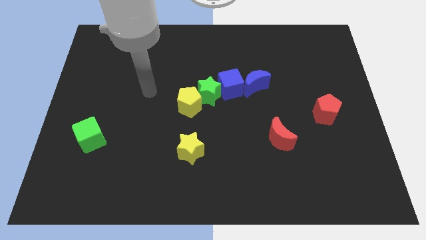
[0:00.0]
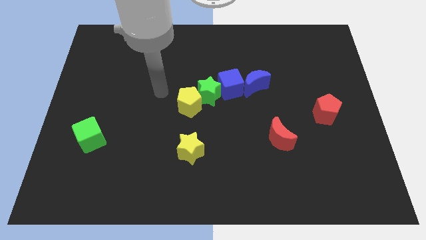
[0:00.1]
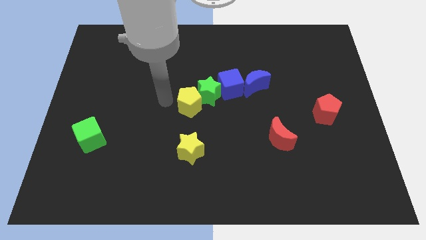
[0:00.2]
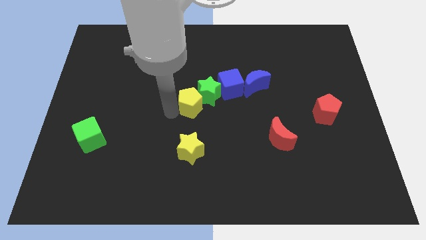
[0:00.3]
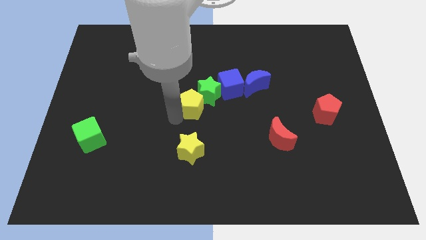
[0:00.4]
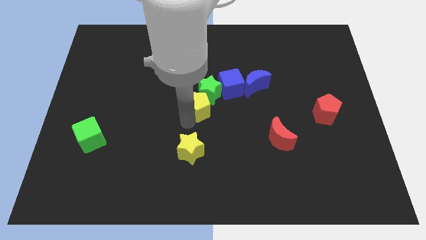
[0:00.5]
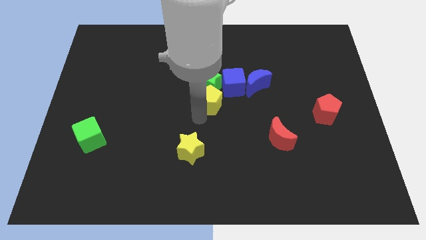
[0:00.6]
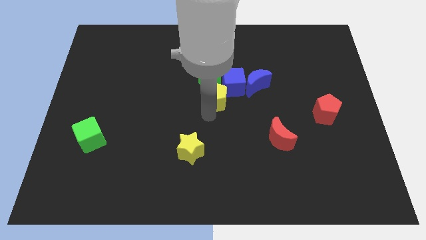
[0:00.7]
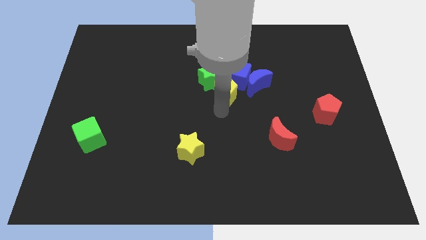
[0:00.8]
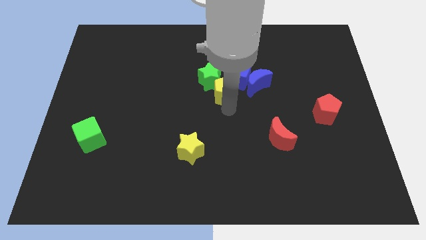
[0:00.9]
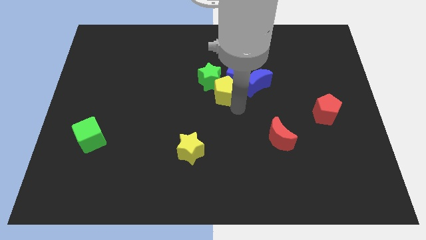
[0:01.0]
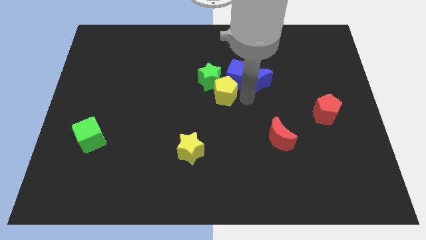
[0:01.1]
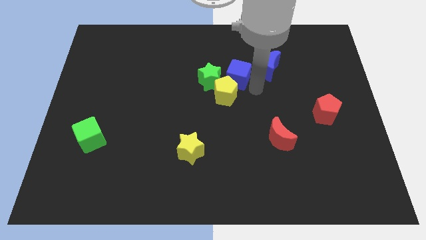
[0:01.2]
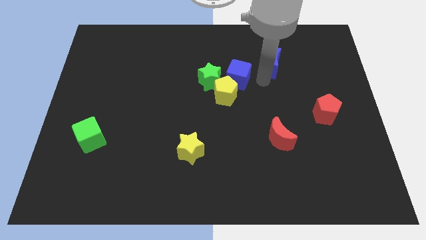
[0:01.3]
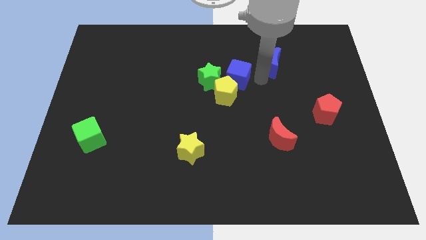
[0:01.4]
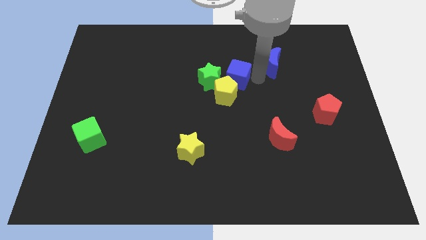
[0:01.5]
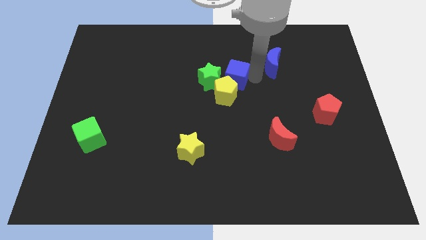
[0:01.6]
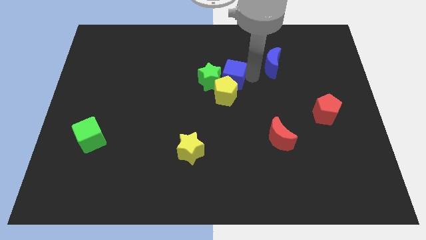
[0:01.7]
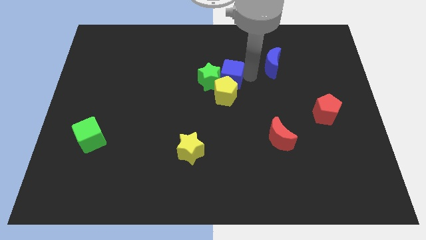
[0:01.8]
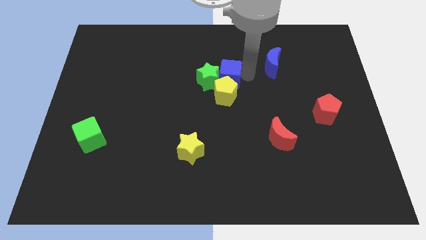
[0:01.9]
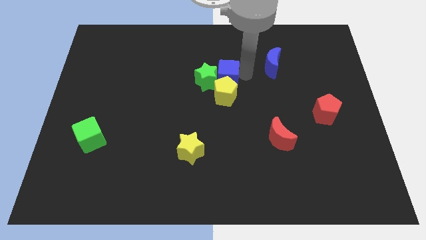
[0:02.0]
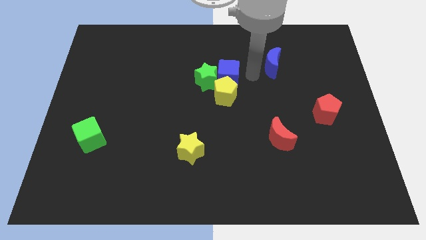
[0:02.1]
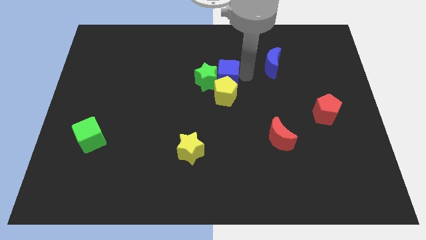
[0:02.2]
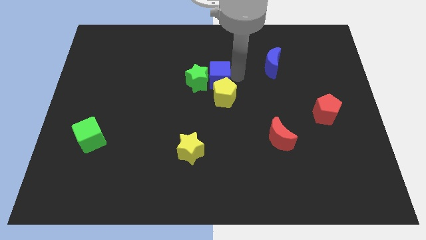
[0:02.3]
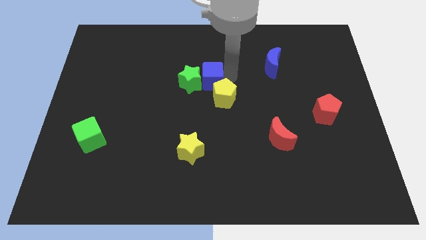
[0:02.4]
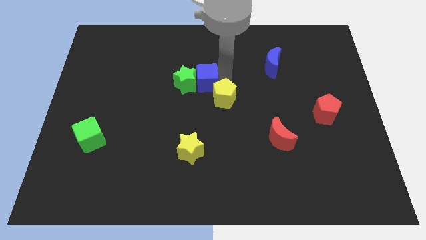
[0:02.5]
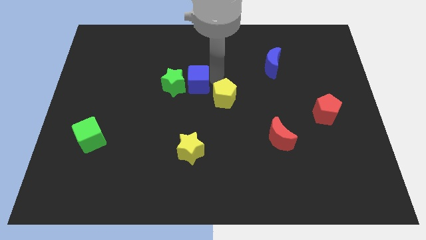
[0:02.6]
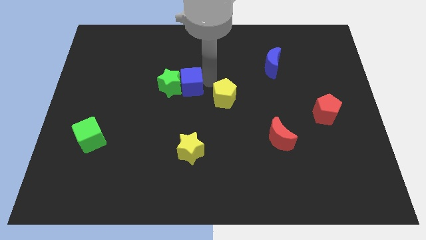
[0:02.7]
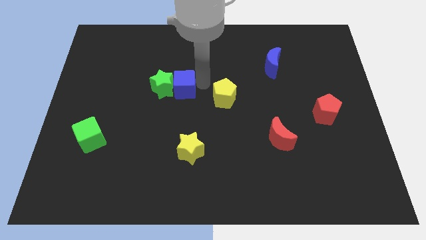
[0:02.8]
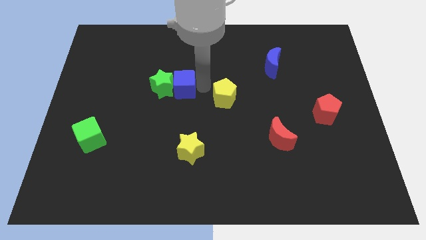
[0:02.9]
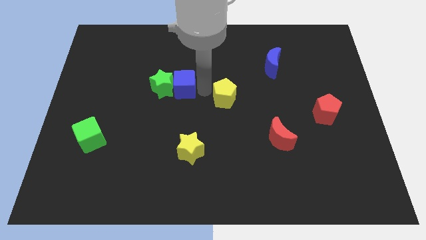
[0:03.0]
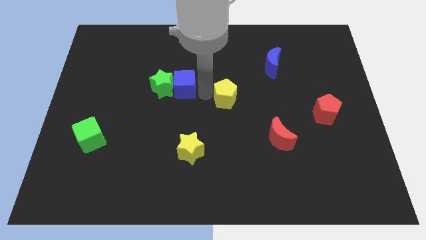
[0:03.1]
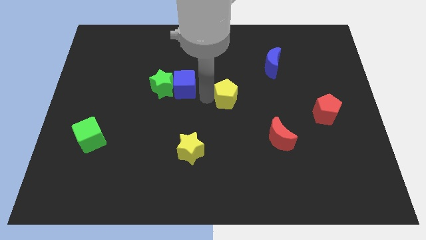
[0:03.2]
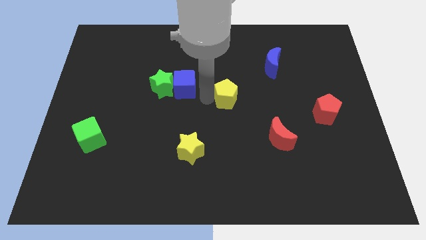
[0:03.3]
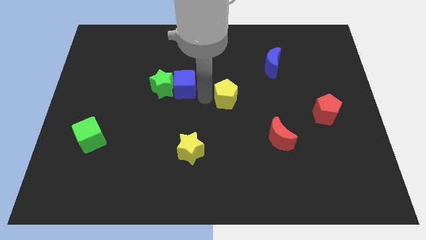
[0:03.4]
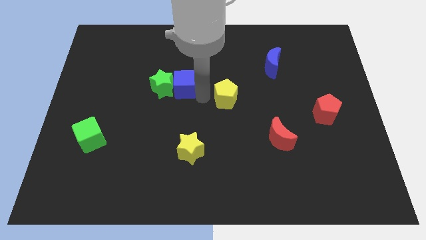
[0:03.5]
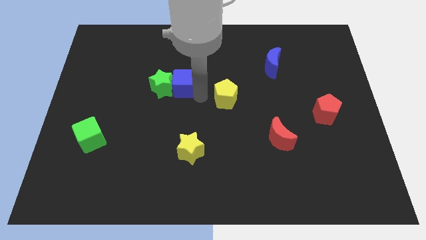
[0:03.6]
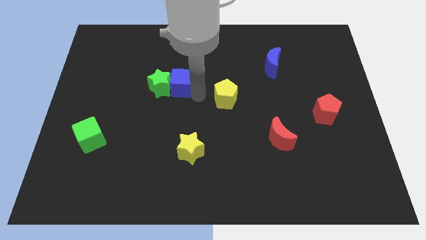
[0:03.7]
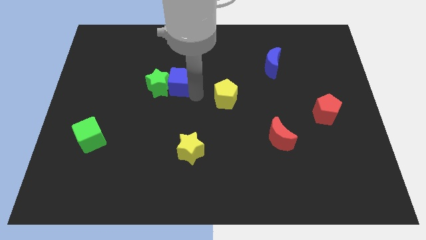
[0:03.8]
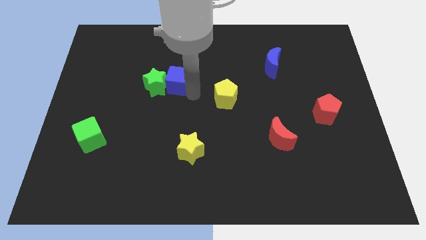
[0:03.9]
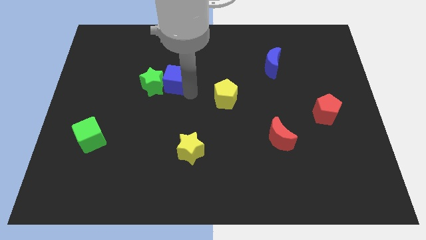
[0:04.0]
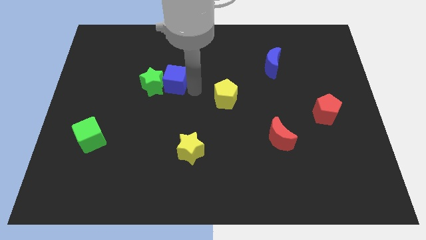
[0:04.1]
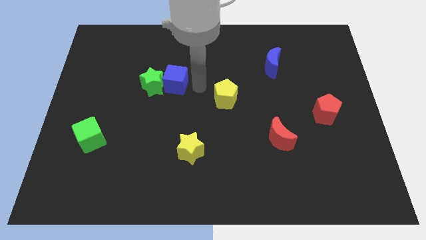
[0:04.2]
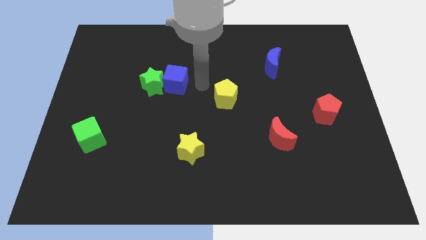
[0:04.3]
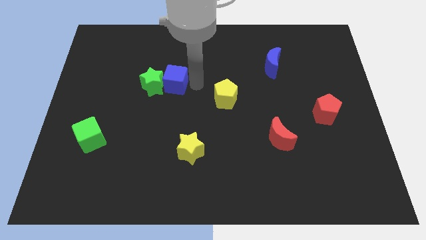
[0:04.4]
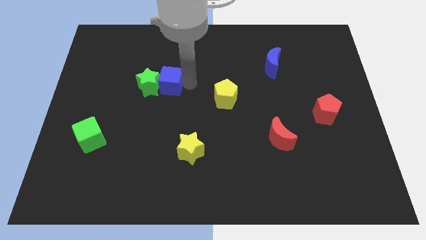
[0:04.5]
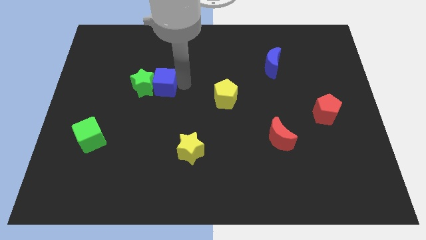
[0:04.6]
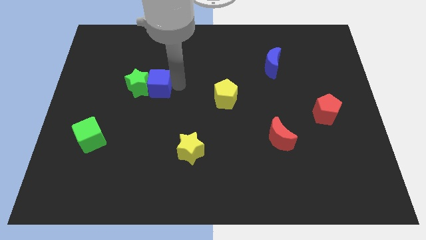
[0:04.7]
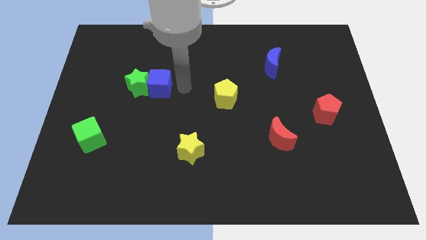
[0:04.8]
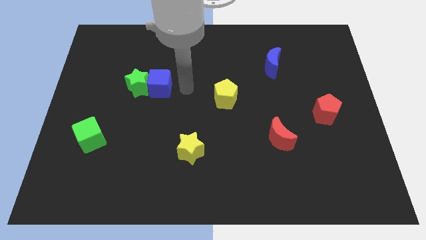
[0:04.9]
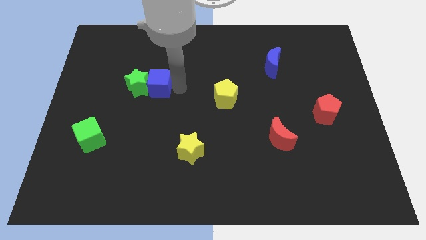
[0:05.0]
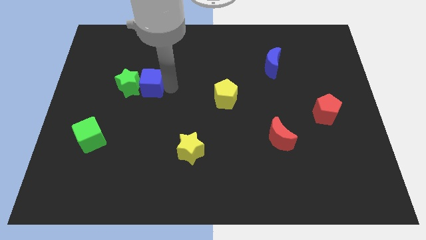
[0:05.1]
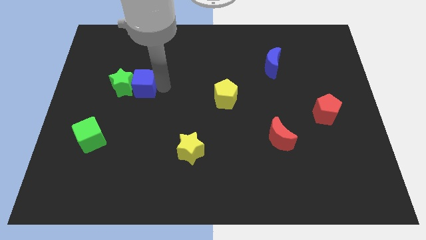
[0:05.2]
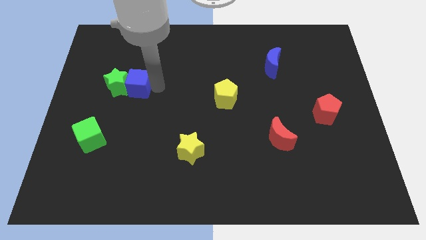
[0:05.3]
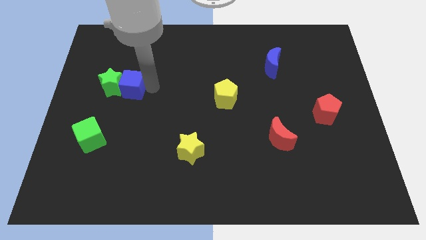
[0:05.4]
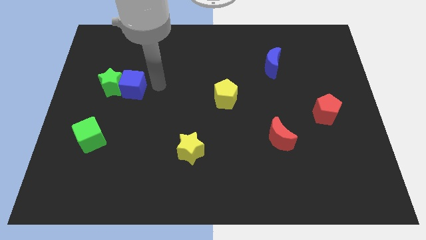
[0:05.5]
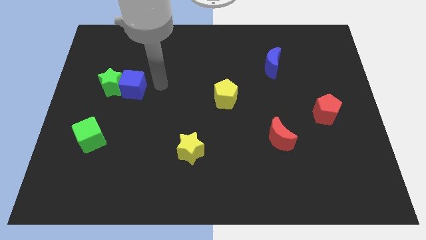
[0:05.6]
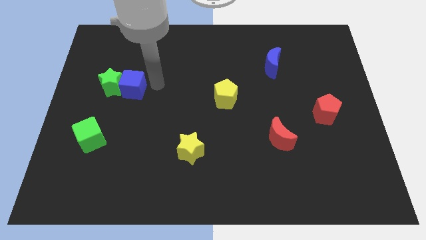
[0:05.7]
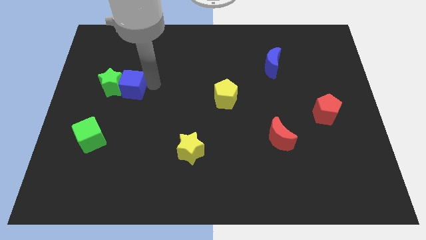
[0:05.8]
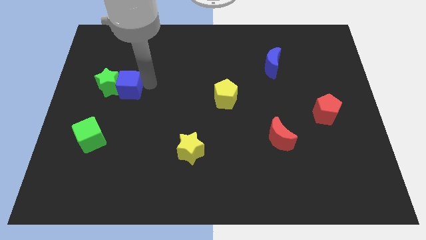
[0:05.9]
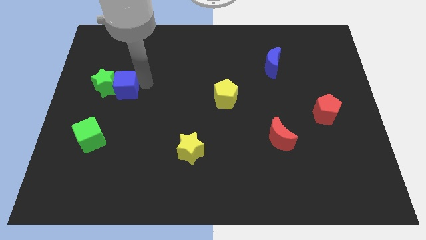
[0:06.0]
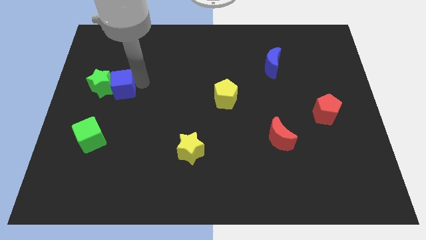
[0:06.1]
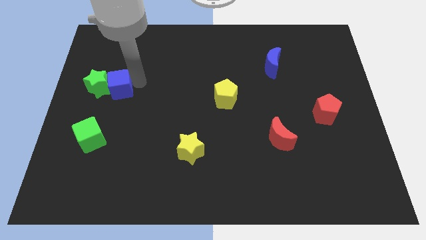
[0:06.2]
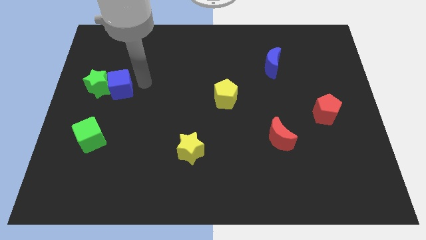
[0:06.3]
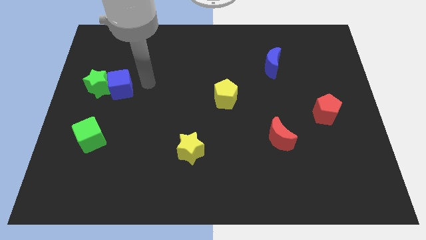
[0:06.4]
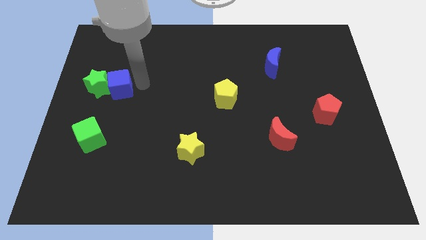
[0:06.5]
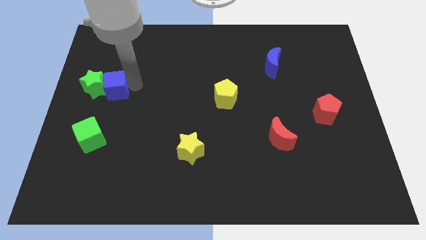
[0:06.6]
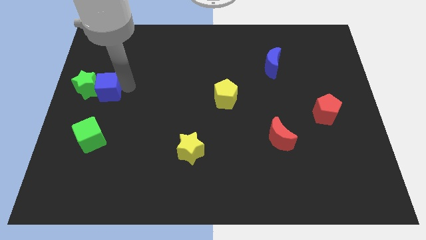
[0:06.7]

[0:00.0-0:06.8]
move the blue cube to the left side of the board
